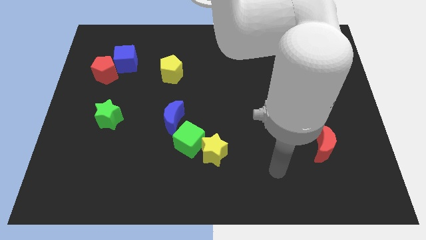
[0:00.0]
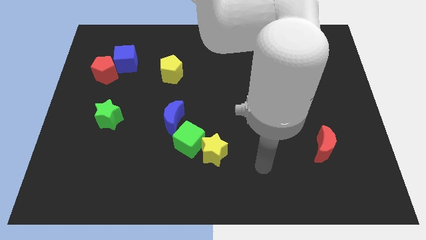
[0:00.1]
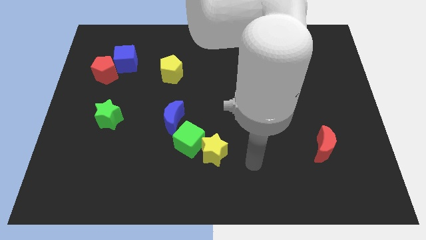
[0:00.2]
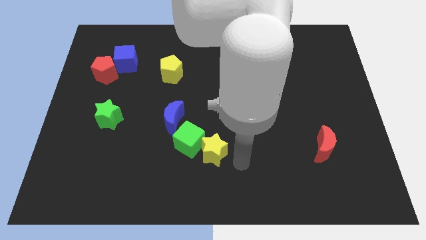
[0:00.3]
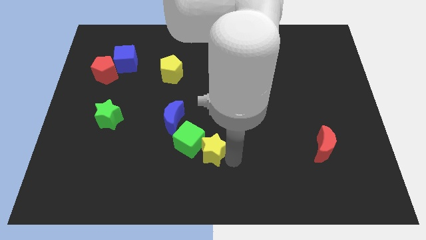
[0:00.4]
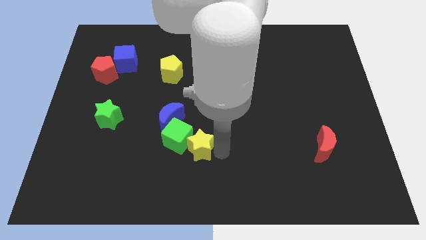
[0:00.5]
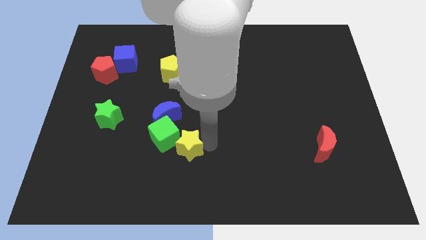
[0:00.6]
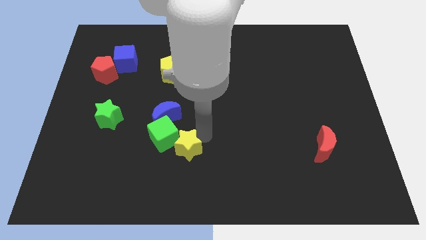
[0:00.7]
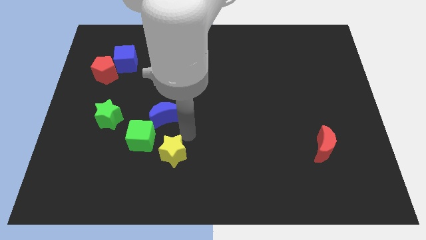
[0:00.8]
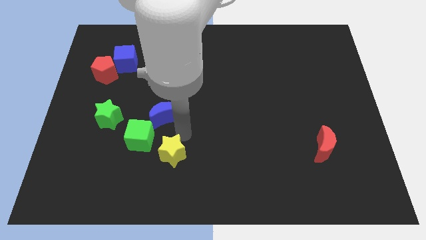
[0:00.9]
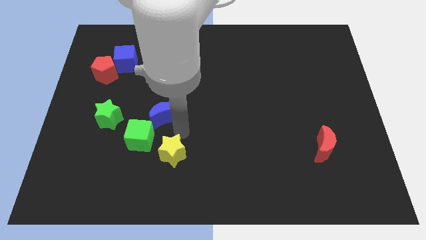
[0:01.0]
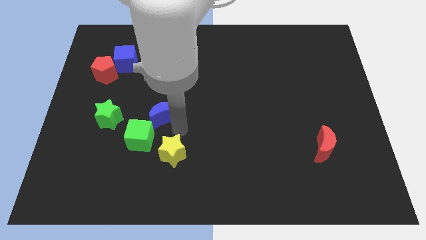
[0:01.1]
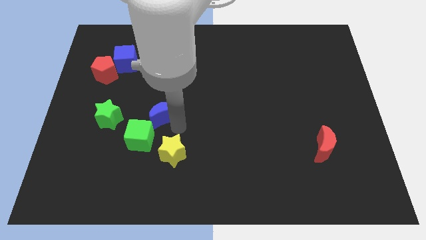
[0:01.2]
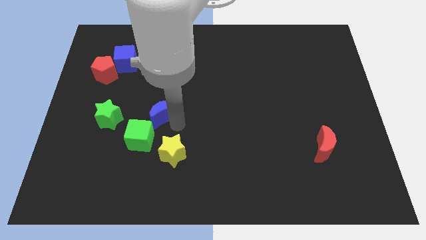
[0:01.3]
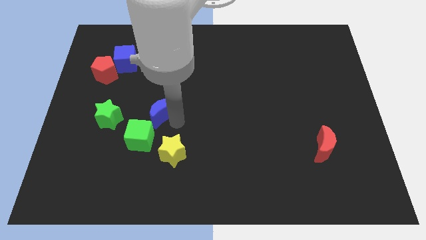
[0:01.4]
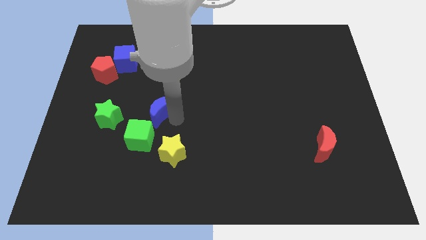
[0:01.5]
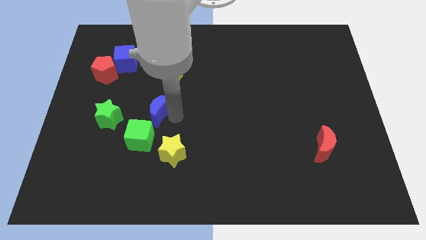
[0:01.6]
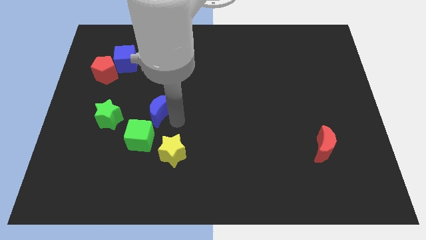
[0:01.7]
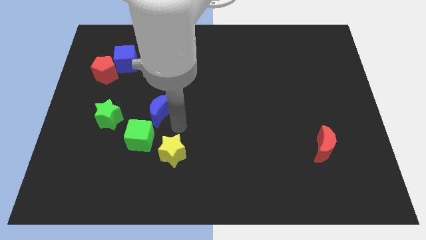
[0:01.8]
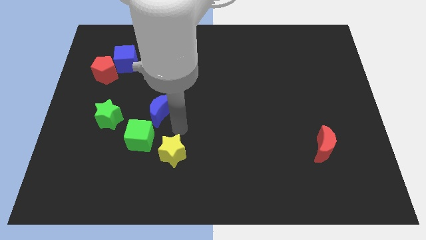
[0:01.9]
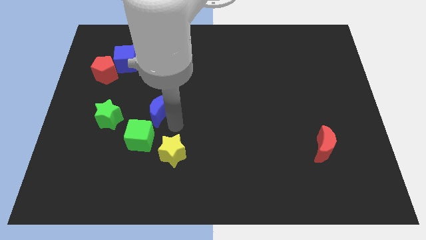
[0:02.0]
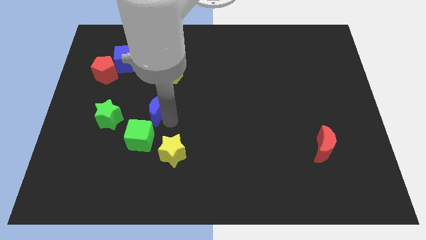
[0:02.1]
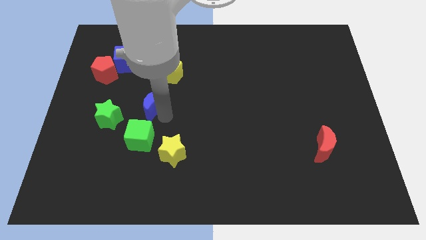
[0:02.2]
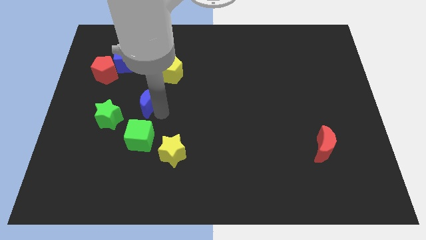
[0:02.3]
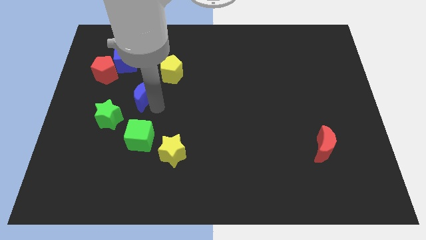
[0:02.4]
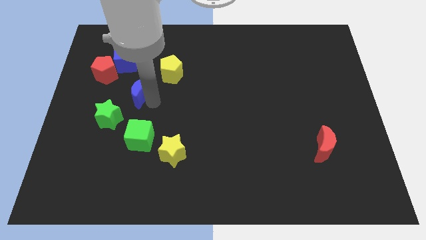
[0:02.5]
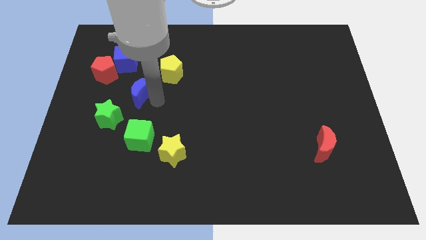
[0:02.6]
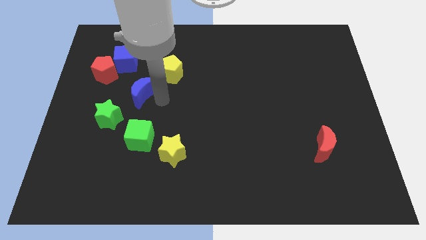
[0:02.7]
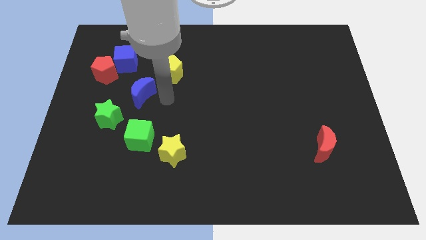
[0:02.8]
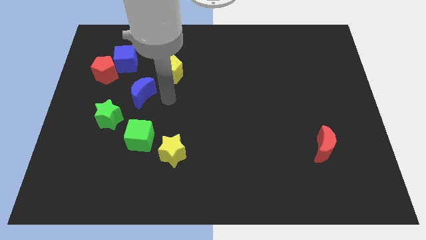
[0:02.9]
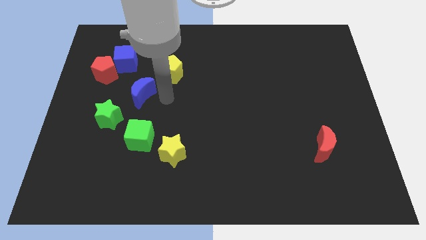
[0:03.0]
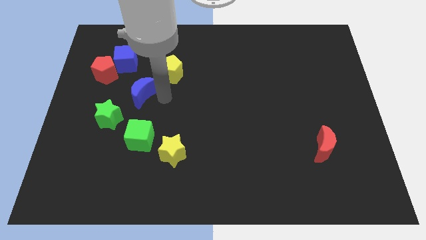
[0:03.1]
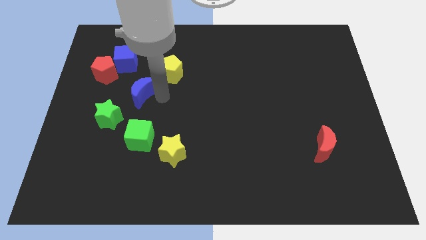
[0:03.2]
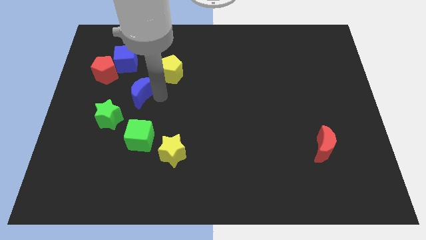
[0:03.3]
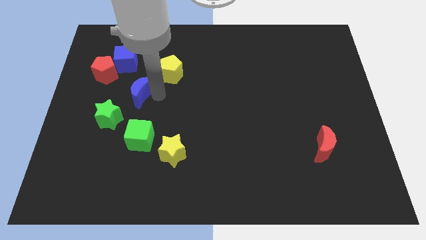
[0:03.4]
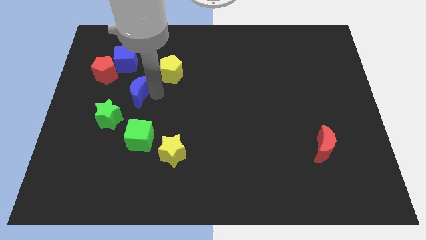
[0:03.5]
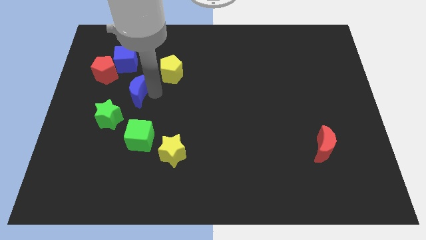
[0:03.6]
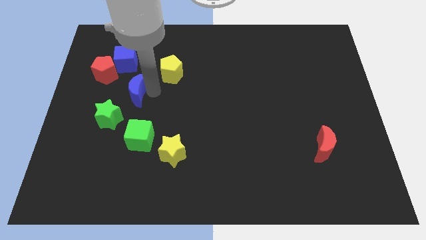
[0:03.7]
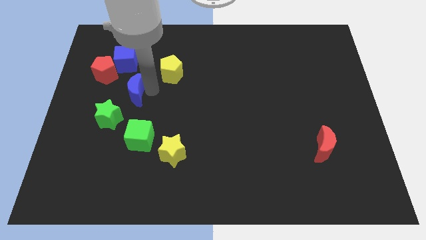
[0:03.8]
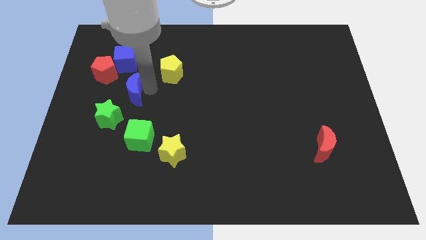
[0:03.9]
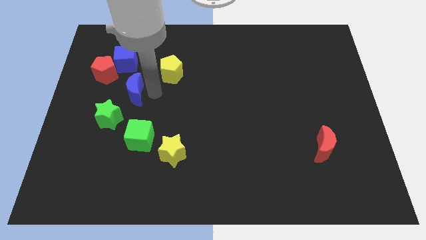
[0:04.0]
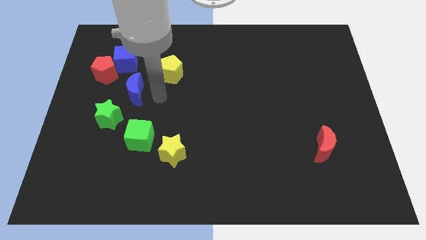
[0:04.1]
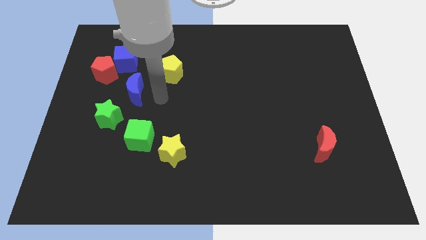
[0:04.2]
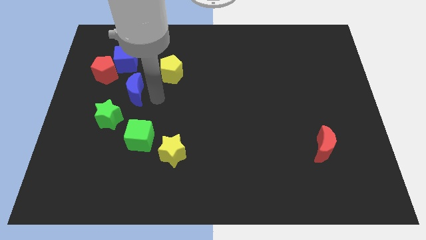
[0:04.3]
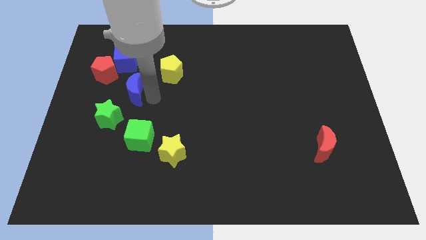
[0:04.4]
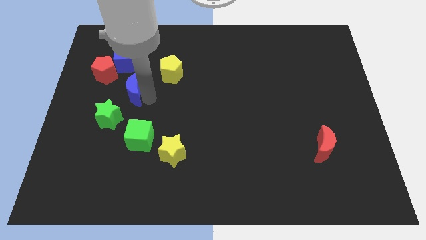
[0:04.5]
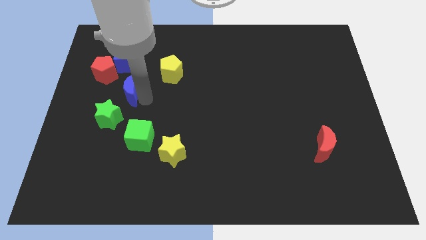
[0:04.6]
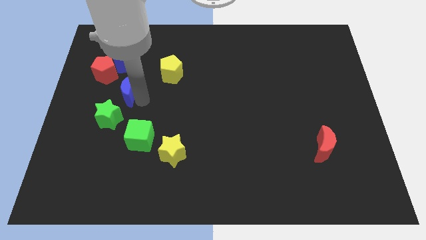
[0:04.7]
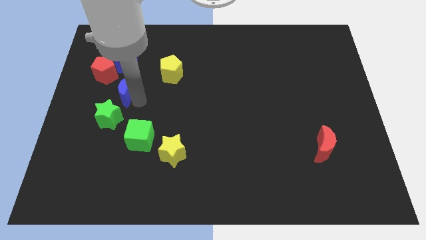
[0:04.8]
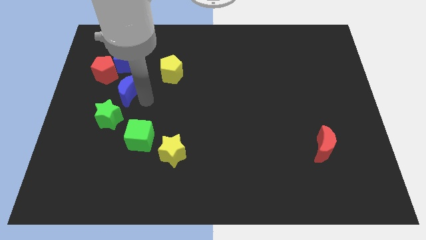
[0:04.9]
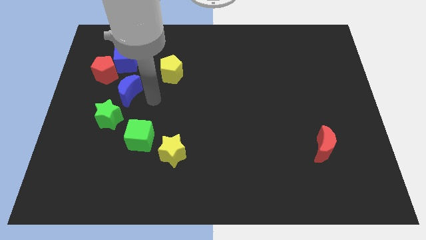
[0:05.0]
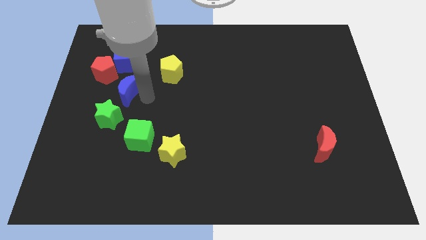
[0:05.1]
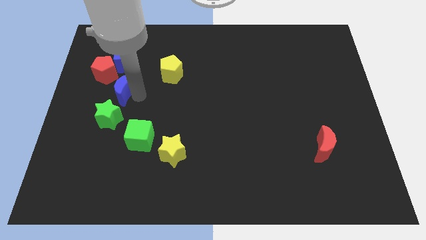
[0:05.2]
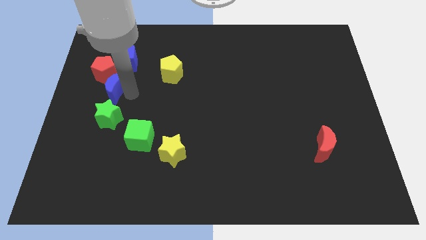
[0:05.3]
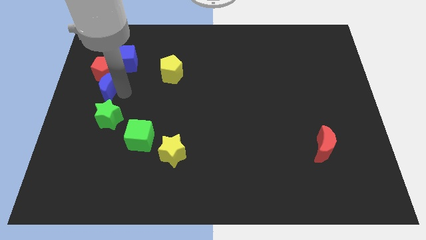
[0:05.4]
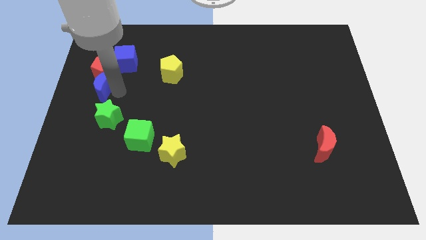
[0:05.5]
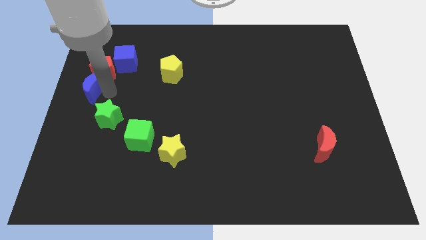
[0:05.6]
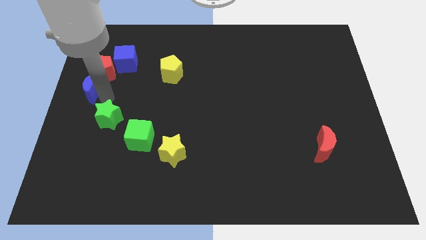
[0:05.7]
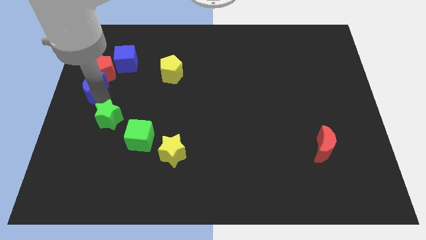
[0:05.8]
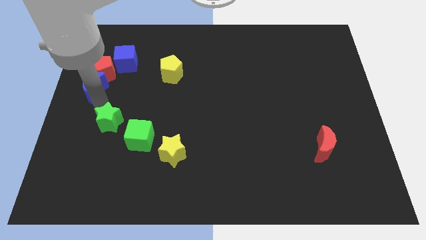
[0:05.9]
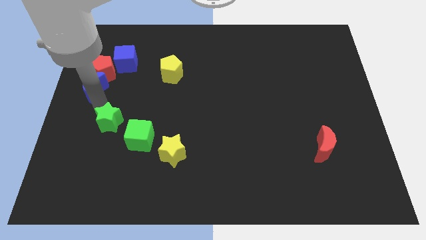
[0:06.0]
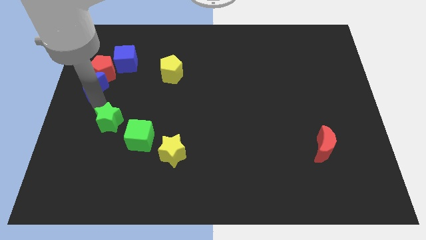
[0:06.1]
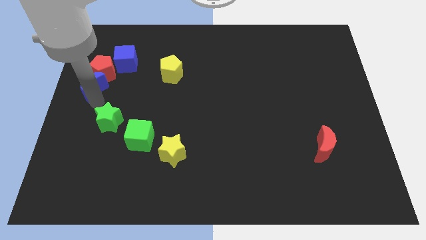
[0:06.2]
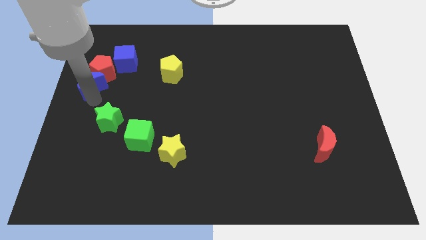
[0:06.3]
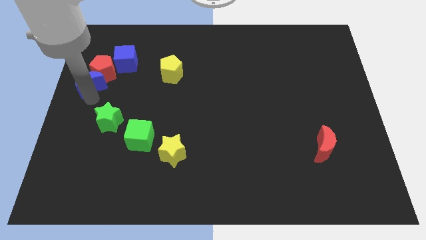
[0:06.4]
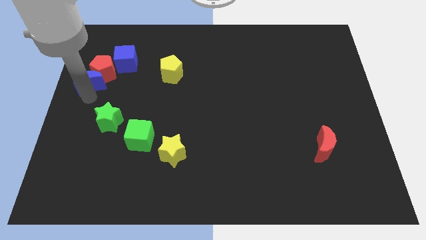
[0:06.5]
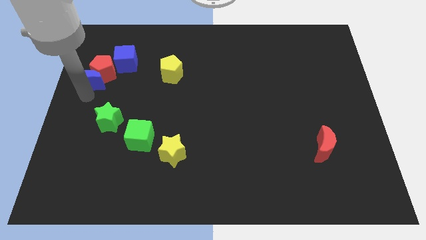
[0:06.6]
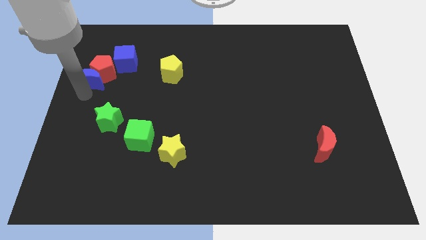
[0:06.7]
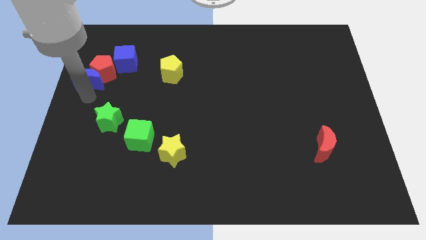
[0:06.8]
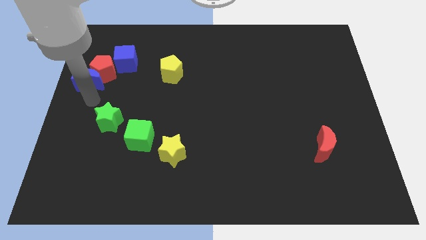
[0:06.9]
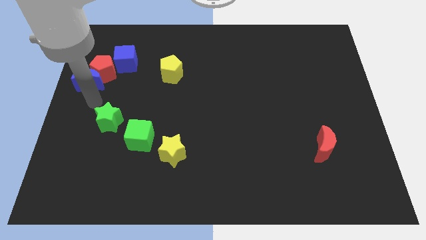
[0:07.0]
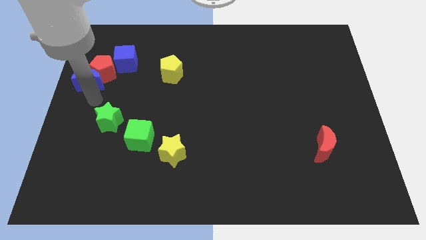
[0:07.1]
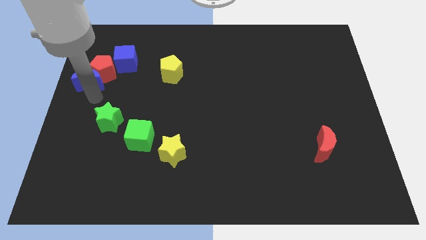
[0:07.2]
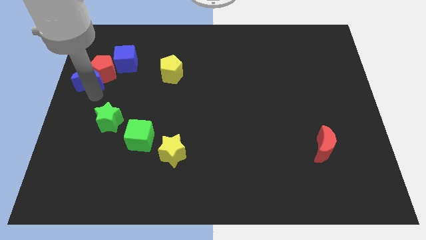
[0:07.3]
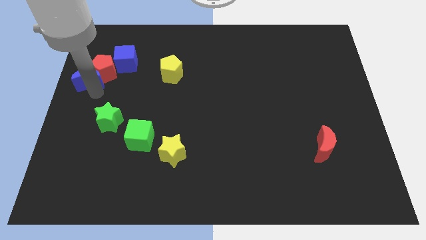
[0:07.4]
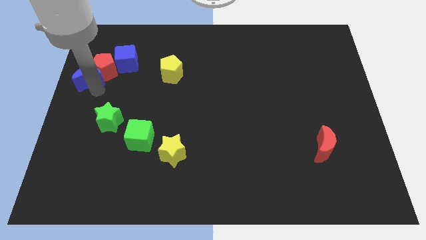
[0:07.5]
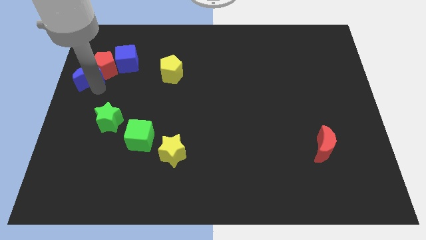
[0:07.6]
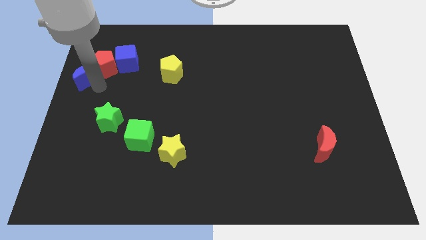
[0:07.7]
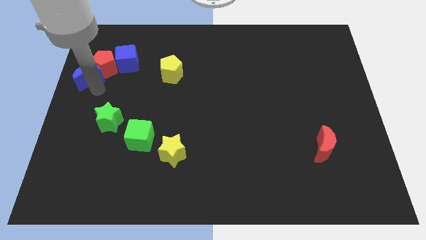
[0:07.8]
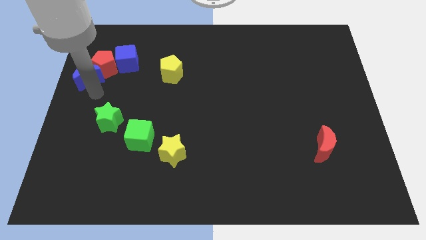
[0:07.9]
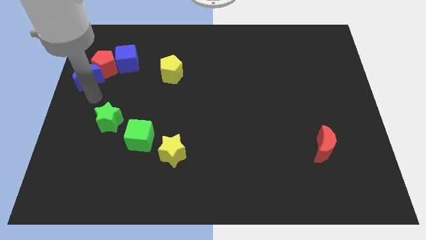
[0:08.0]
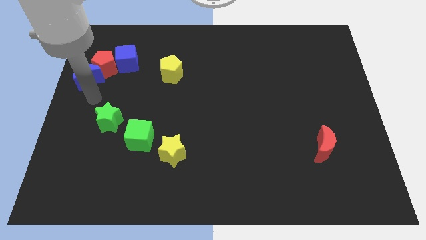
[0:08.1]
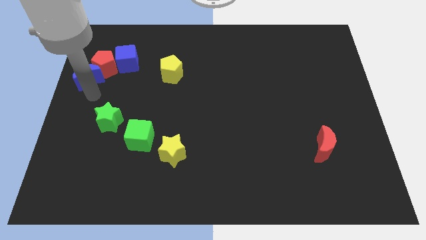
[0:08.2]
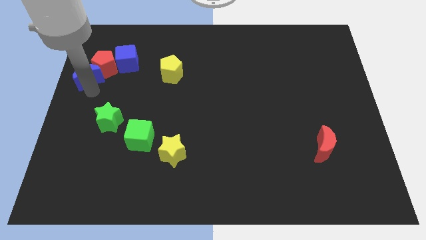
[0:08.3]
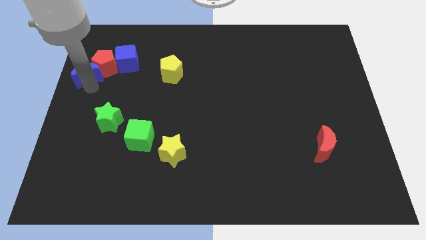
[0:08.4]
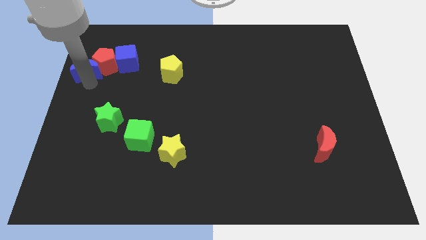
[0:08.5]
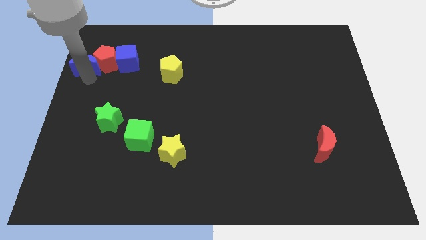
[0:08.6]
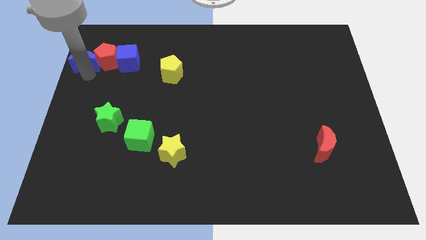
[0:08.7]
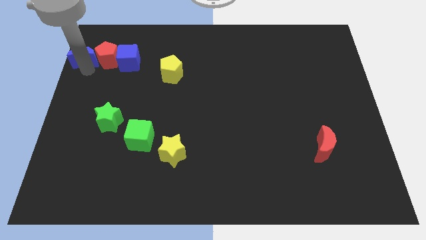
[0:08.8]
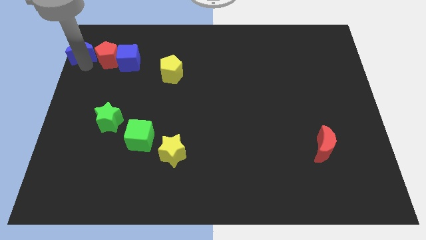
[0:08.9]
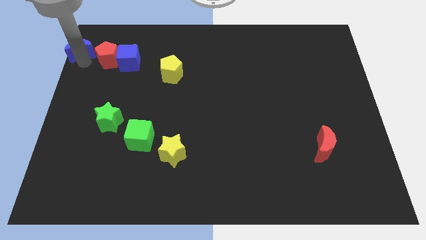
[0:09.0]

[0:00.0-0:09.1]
move the blue moon to the top left of the board
